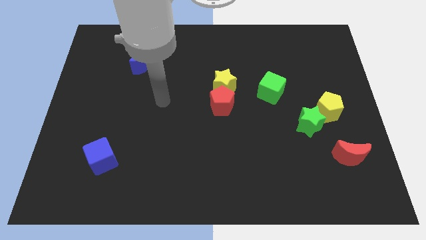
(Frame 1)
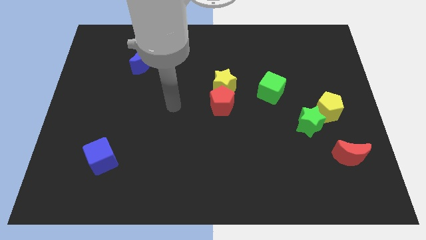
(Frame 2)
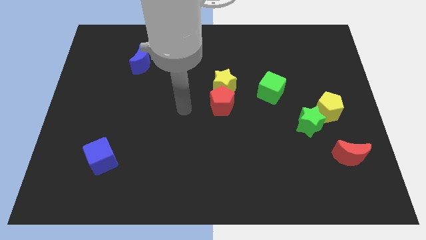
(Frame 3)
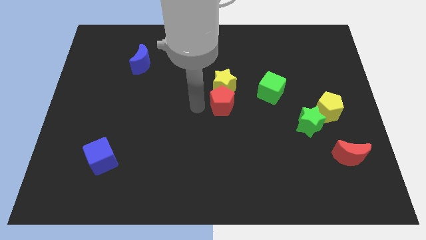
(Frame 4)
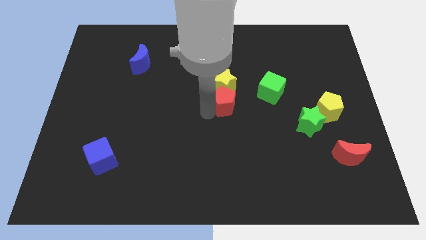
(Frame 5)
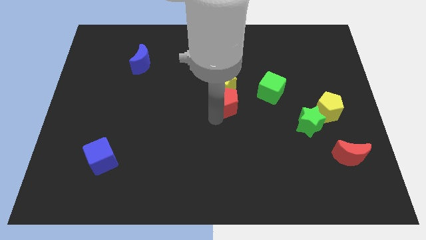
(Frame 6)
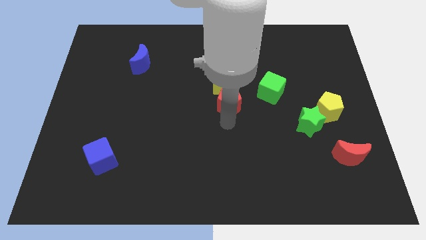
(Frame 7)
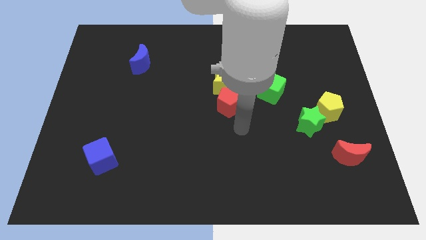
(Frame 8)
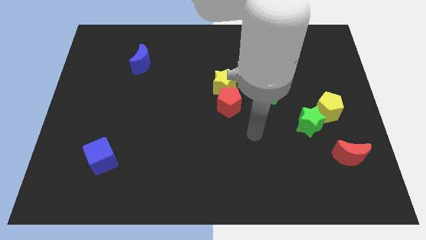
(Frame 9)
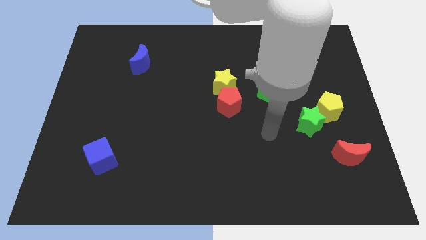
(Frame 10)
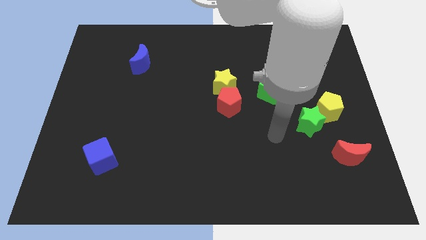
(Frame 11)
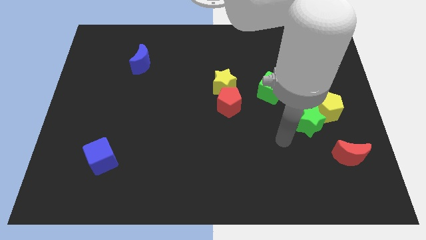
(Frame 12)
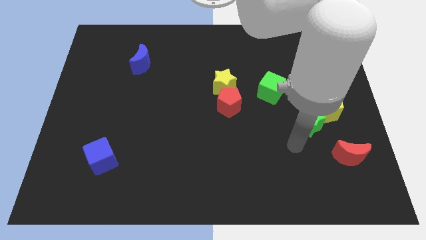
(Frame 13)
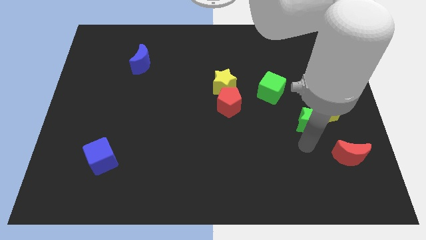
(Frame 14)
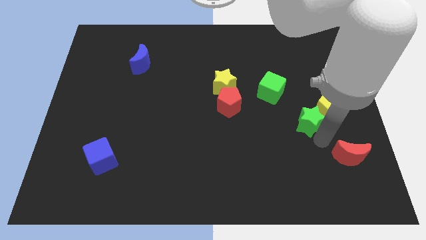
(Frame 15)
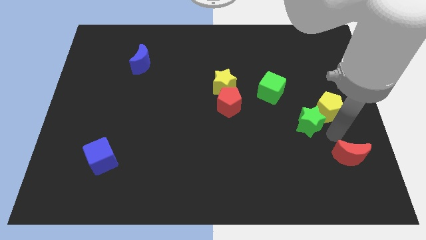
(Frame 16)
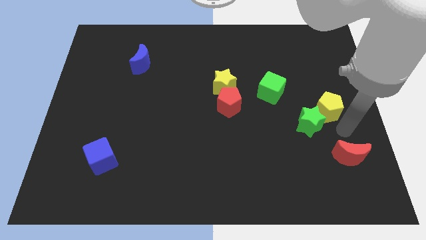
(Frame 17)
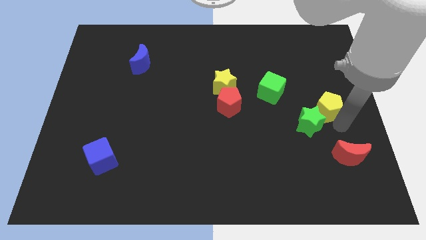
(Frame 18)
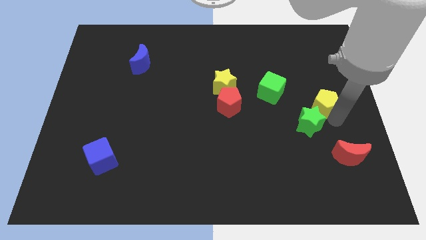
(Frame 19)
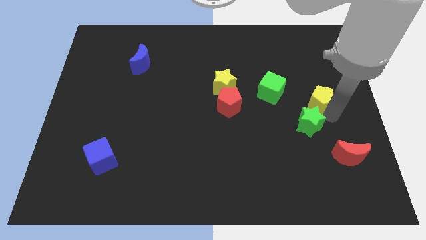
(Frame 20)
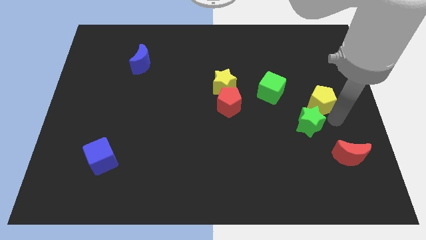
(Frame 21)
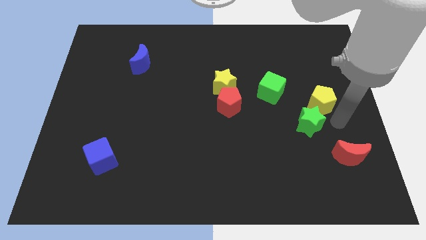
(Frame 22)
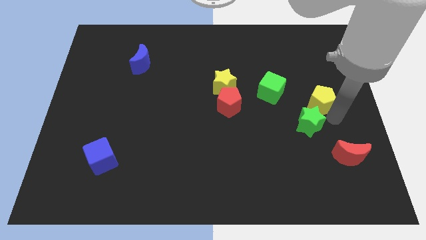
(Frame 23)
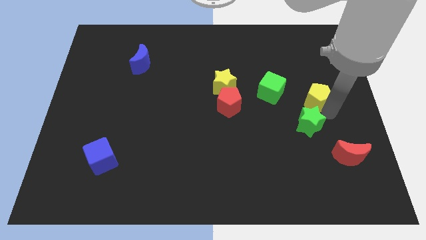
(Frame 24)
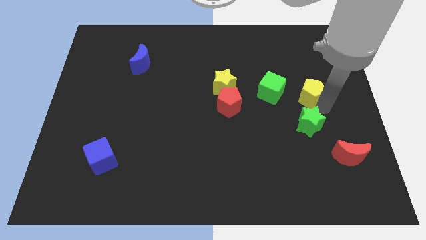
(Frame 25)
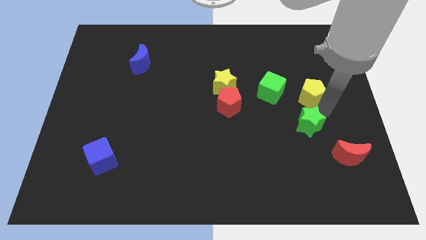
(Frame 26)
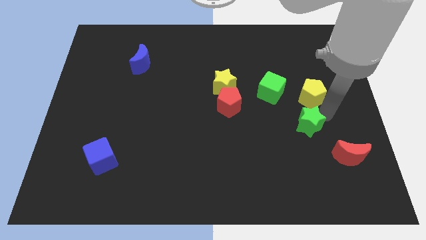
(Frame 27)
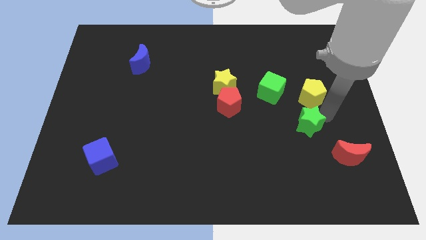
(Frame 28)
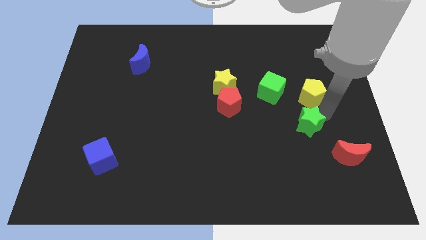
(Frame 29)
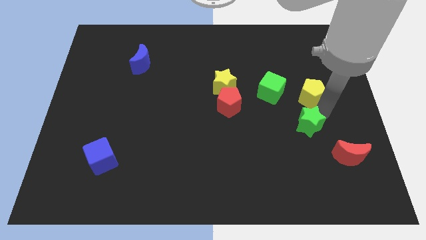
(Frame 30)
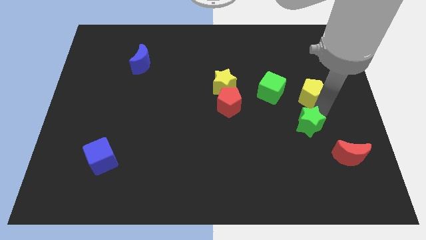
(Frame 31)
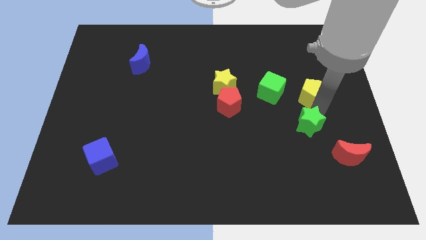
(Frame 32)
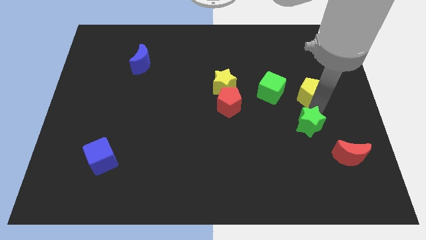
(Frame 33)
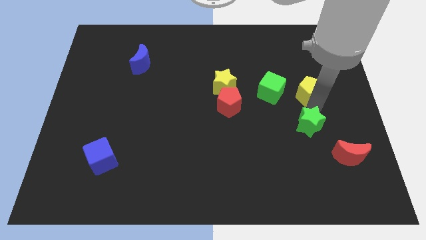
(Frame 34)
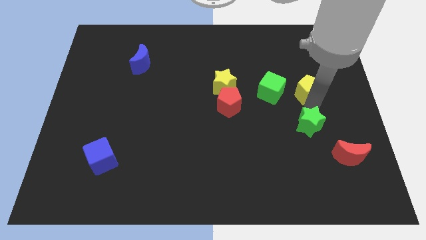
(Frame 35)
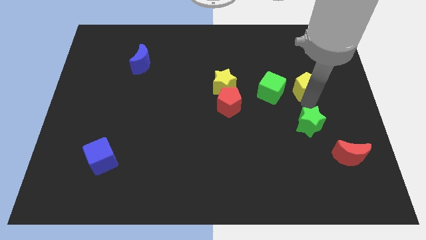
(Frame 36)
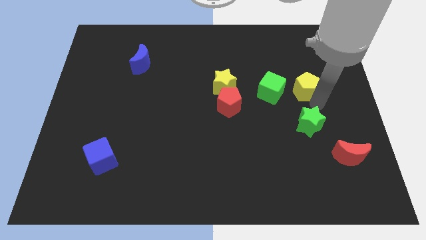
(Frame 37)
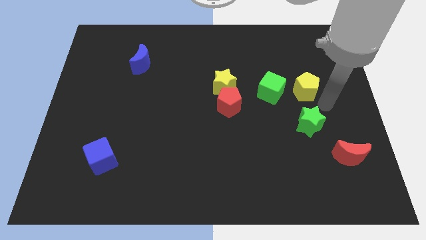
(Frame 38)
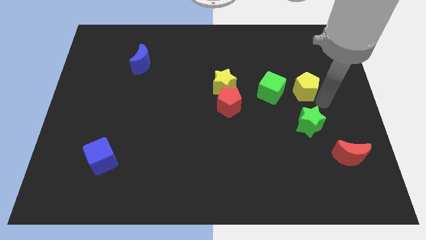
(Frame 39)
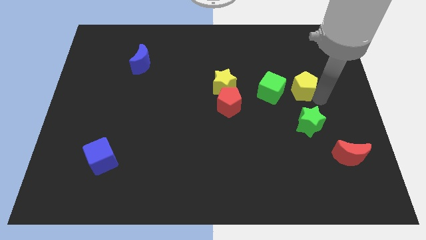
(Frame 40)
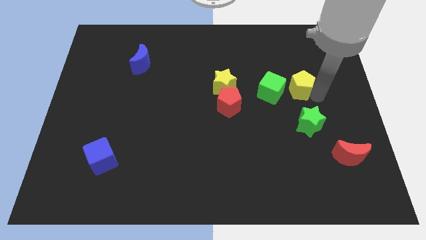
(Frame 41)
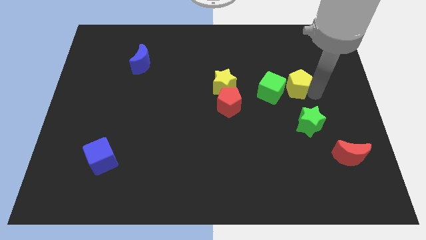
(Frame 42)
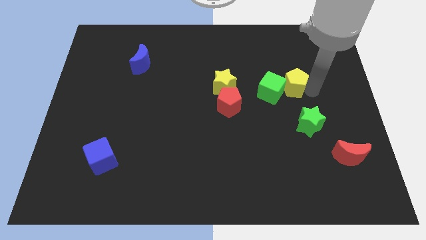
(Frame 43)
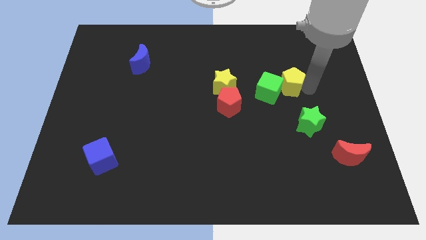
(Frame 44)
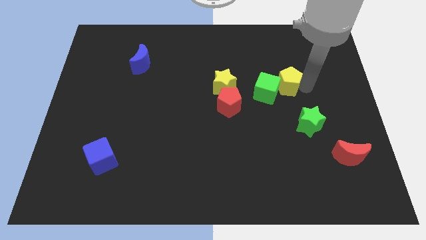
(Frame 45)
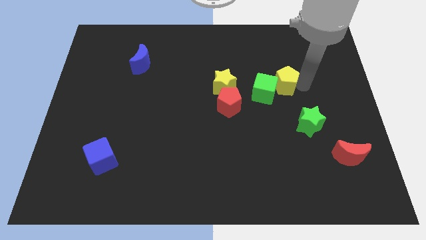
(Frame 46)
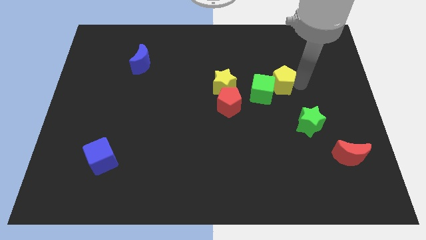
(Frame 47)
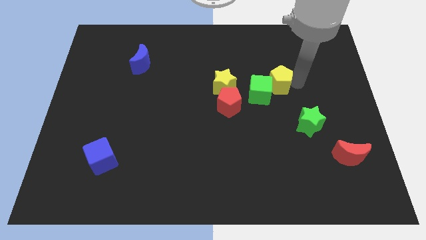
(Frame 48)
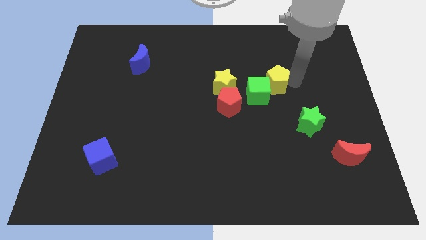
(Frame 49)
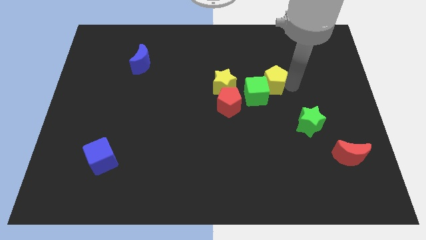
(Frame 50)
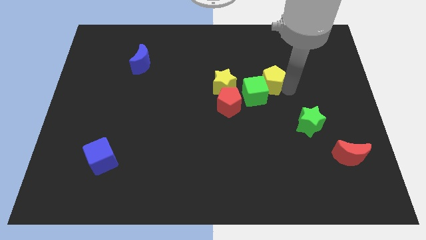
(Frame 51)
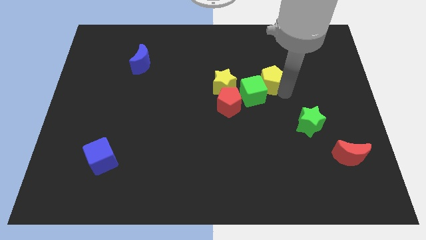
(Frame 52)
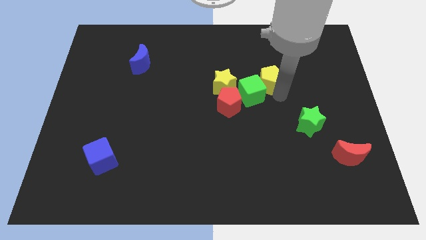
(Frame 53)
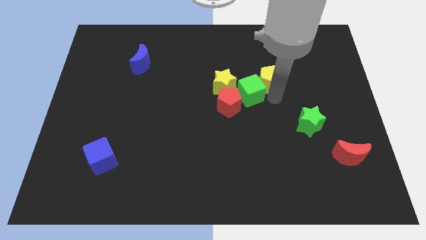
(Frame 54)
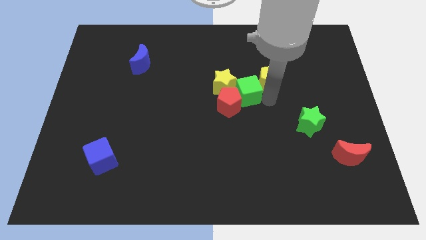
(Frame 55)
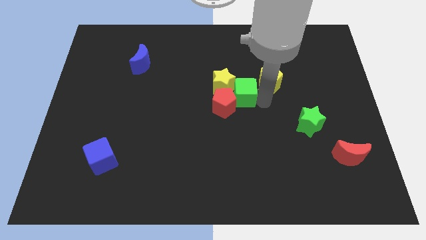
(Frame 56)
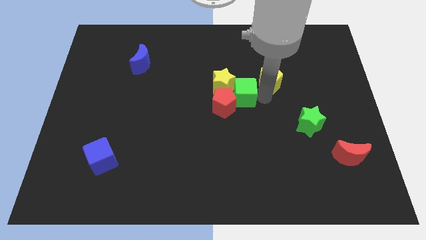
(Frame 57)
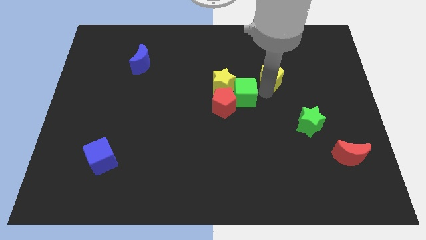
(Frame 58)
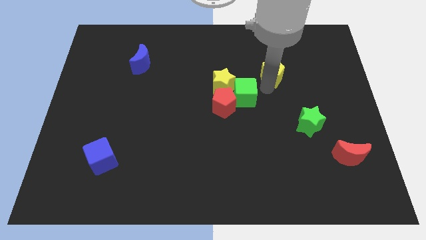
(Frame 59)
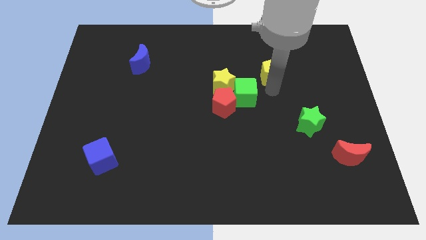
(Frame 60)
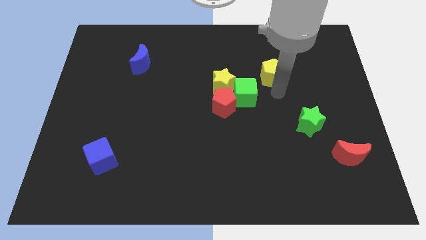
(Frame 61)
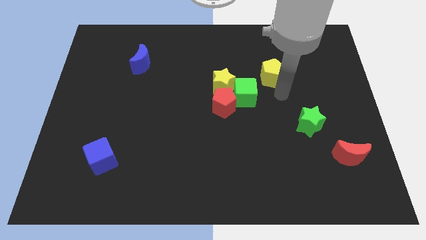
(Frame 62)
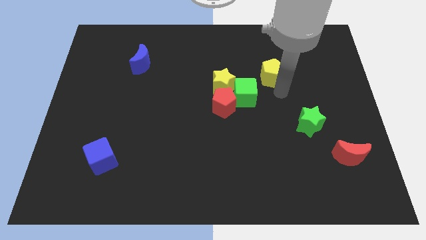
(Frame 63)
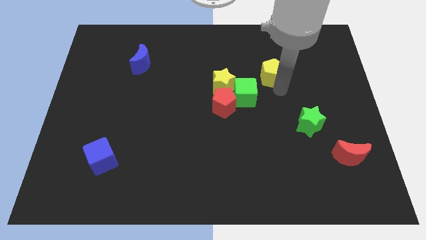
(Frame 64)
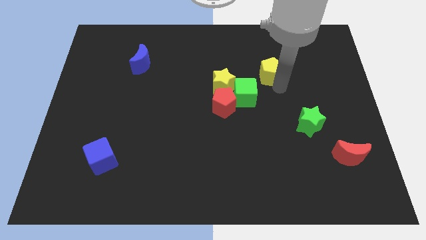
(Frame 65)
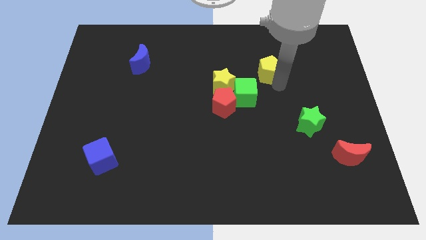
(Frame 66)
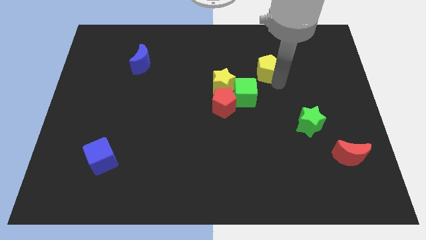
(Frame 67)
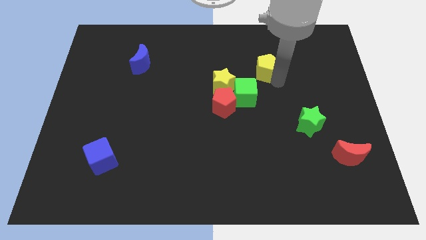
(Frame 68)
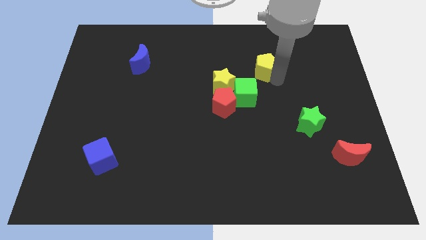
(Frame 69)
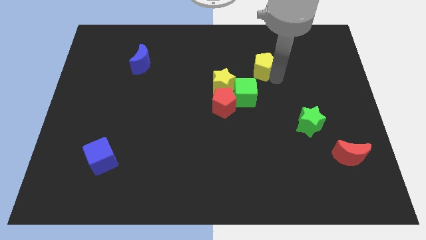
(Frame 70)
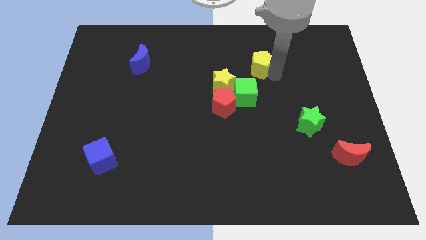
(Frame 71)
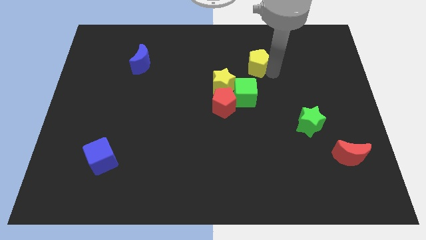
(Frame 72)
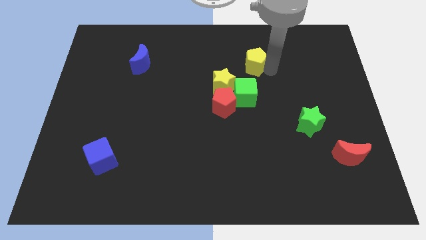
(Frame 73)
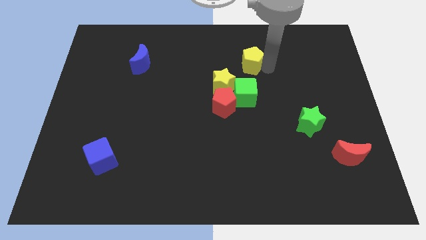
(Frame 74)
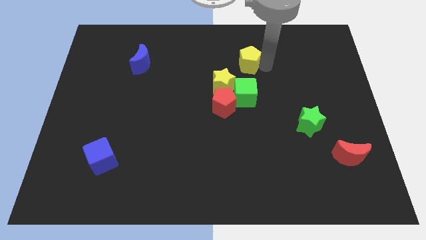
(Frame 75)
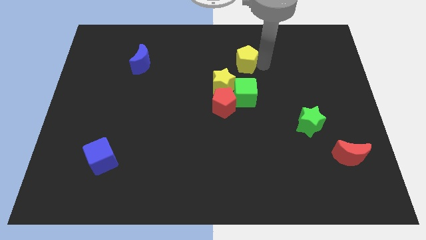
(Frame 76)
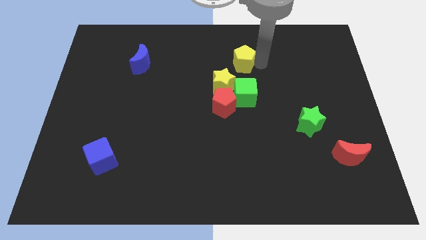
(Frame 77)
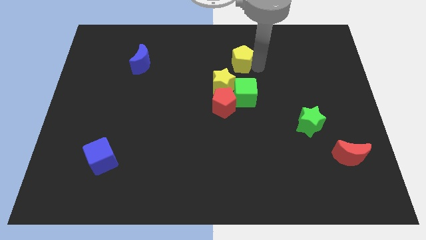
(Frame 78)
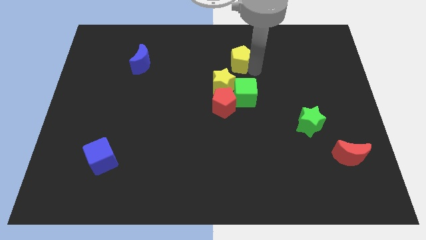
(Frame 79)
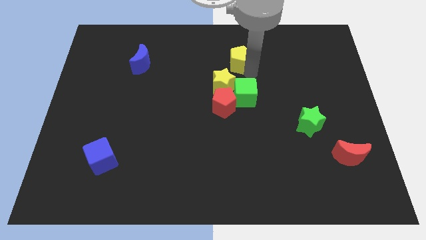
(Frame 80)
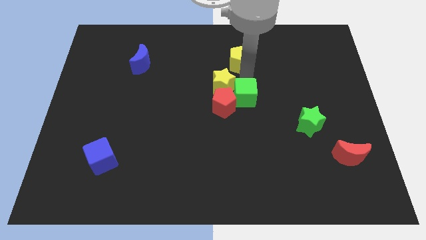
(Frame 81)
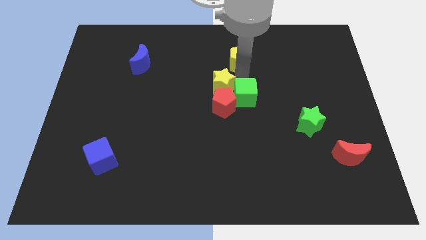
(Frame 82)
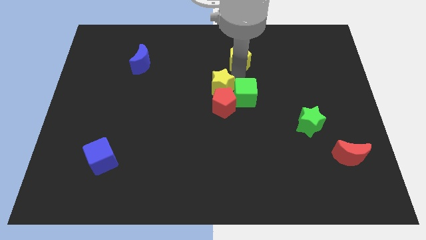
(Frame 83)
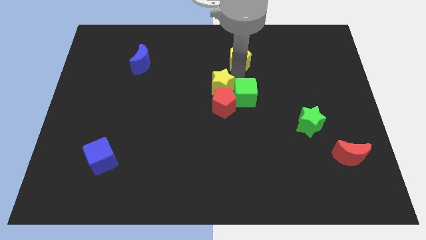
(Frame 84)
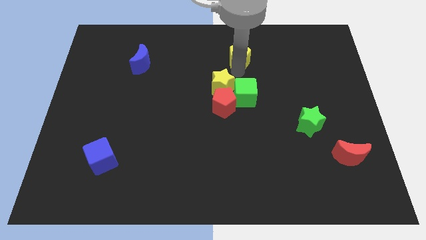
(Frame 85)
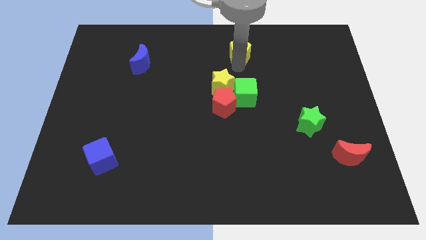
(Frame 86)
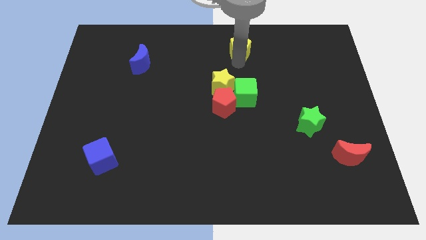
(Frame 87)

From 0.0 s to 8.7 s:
slide the yellow pentagon to the towards your base
